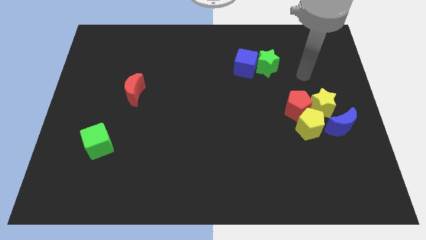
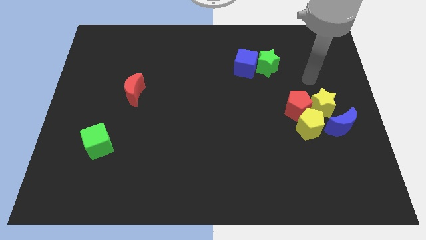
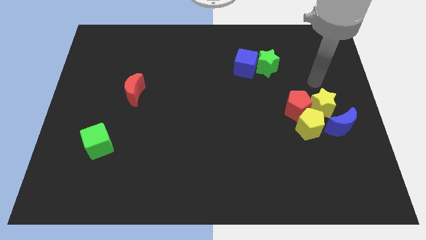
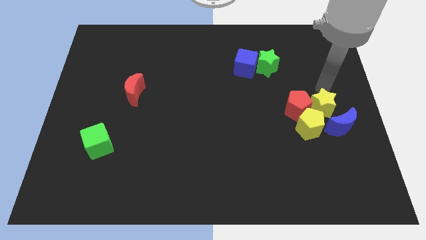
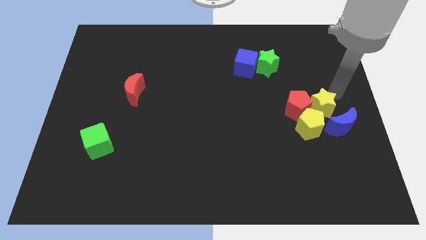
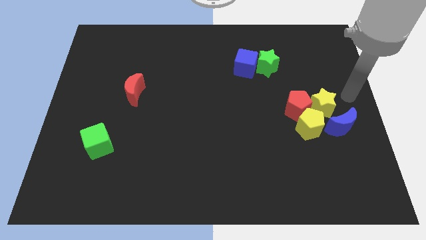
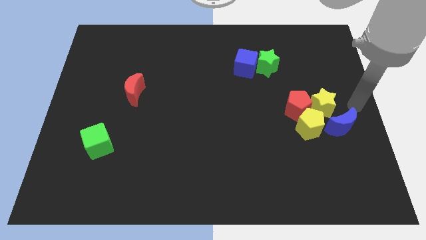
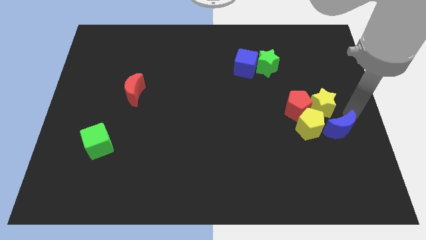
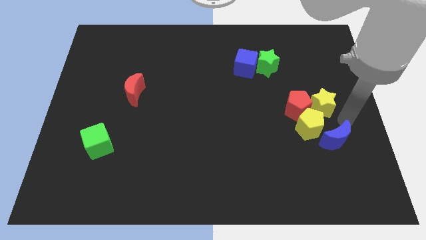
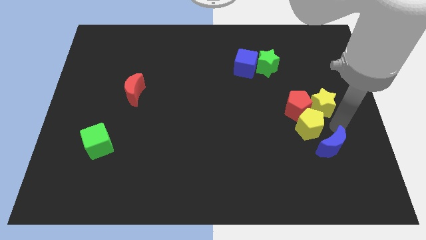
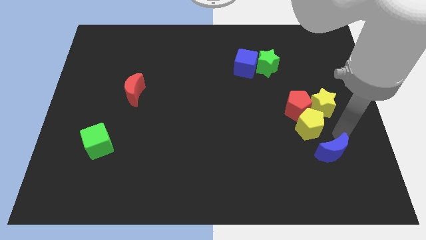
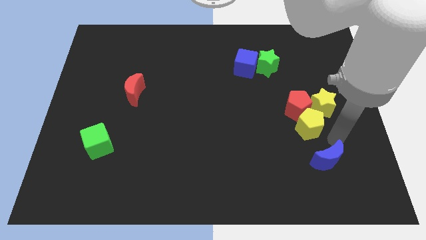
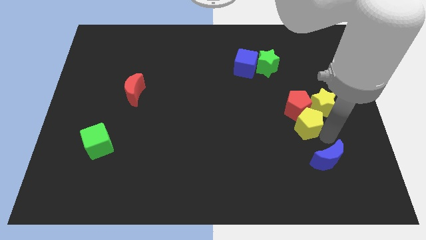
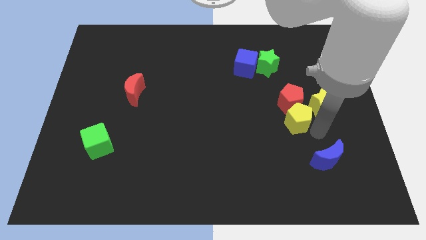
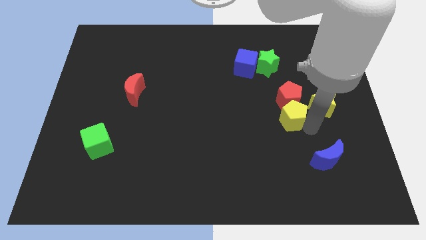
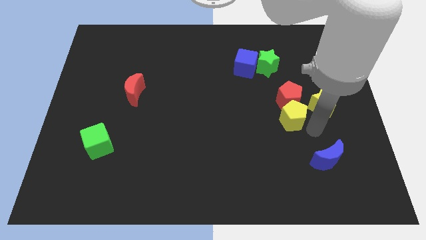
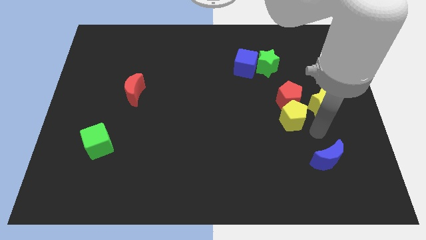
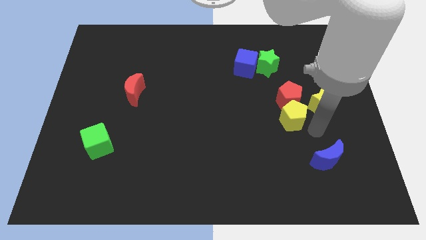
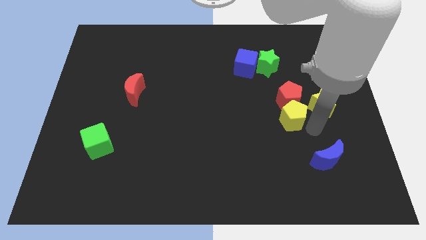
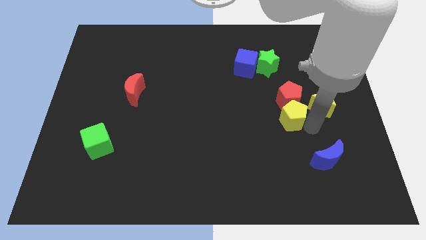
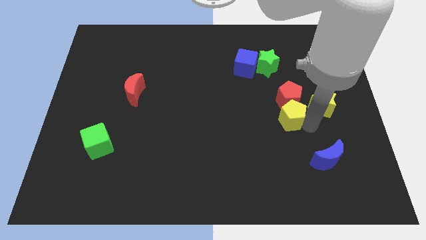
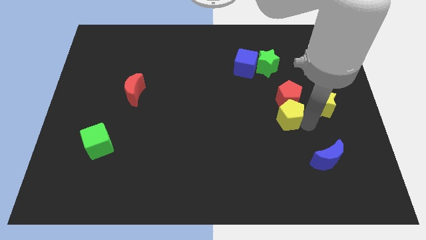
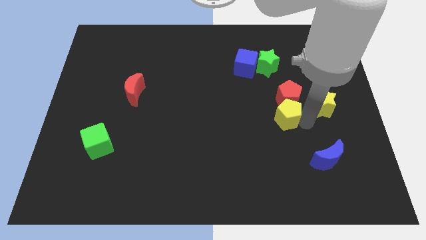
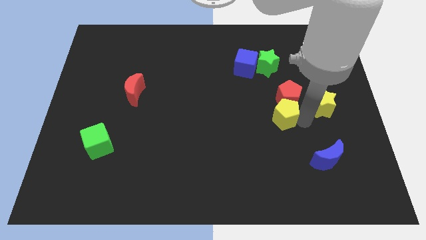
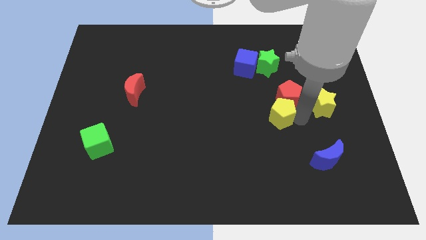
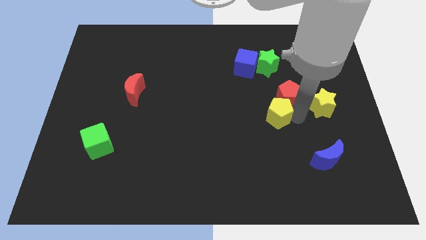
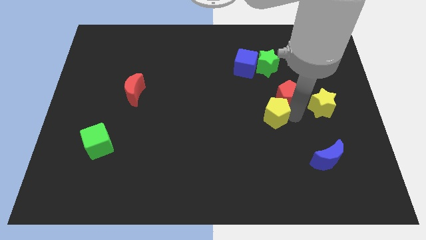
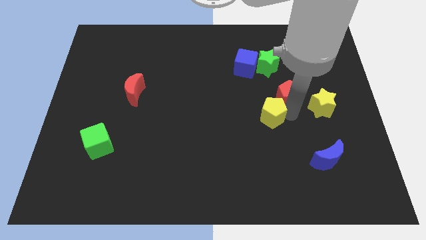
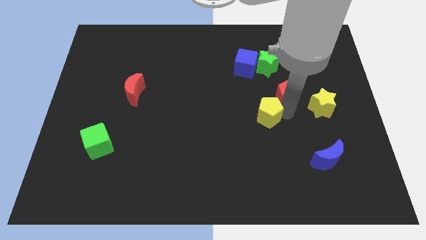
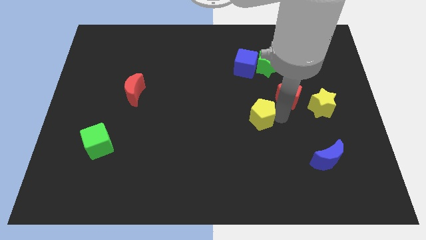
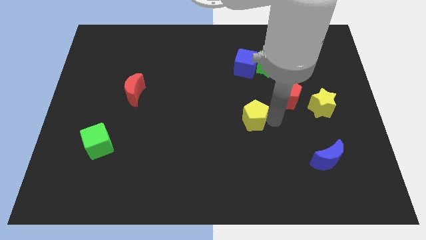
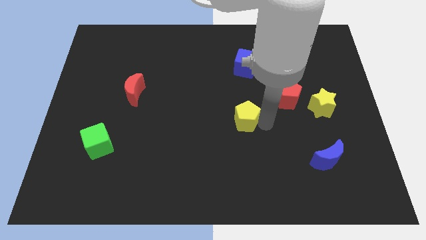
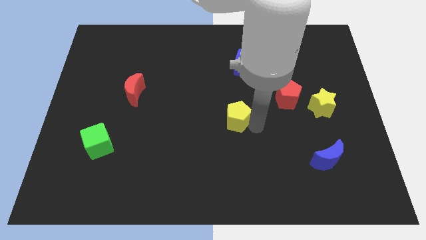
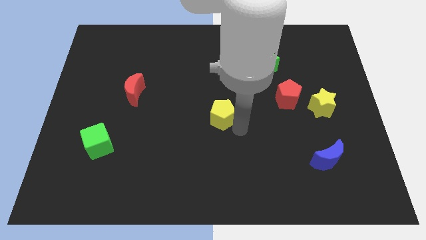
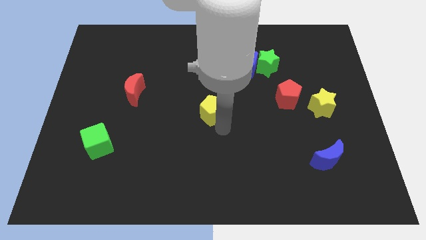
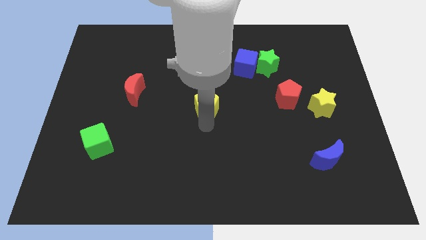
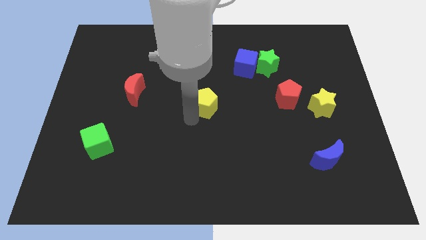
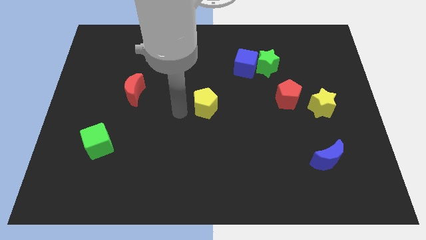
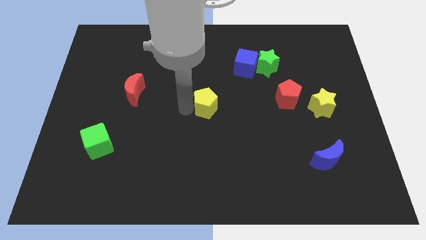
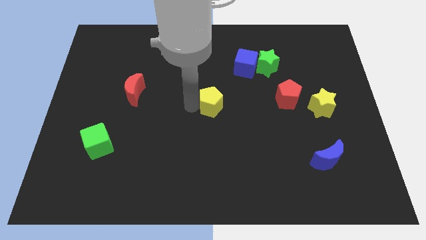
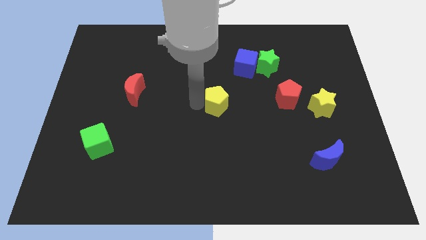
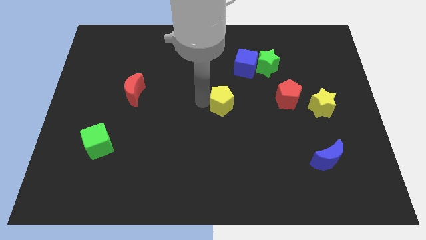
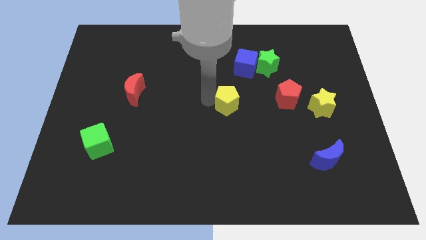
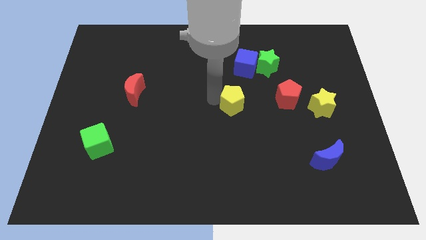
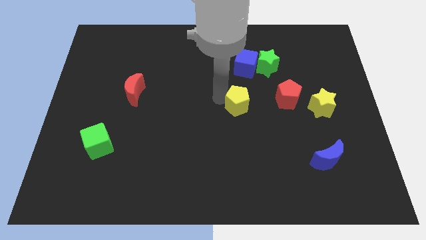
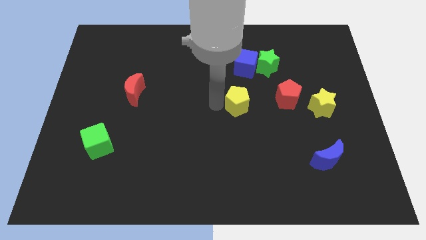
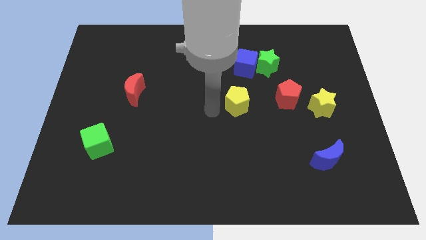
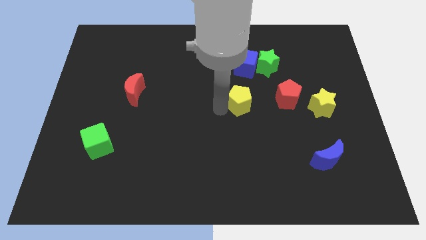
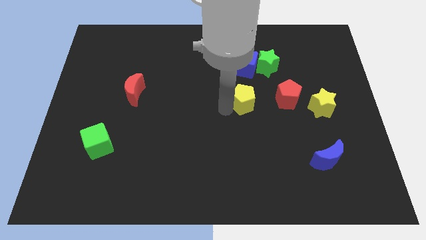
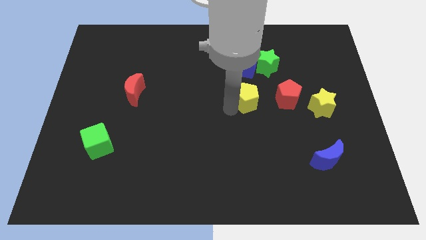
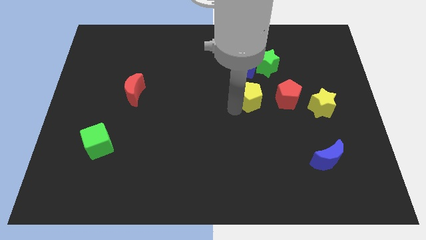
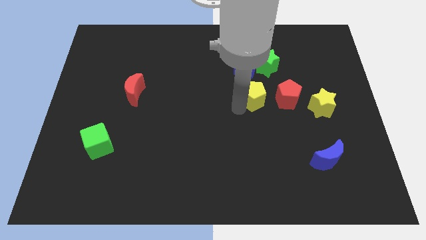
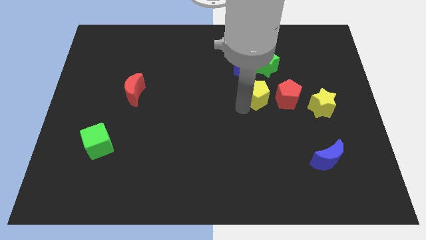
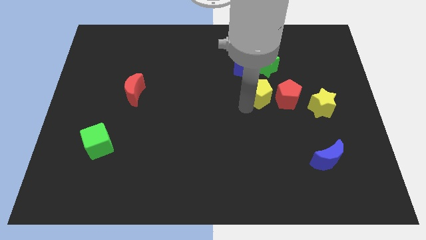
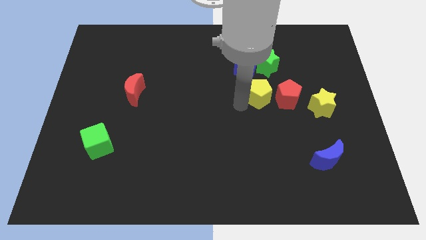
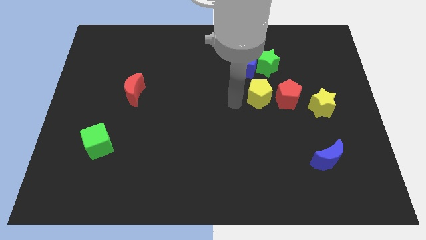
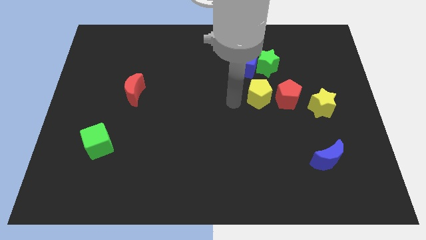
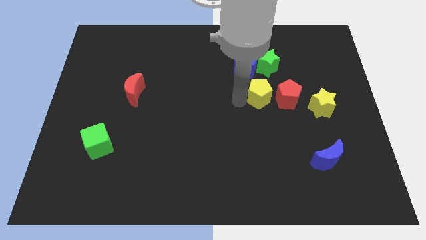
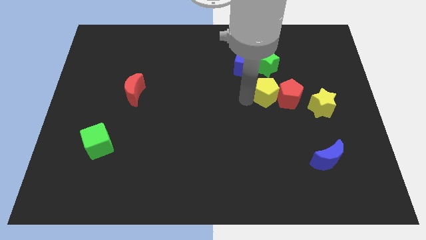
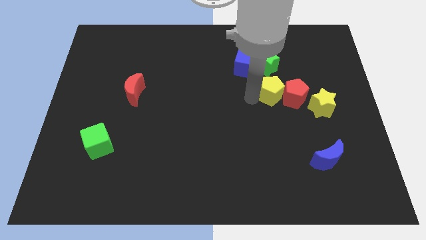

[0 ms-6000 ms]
slightly push the yellow pentagon up

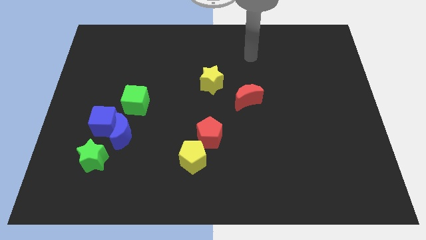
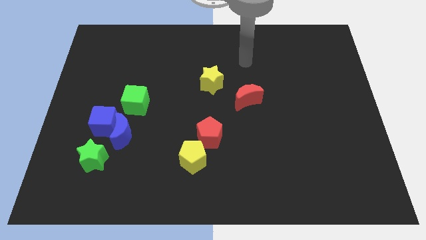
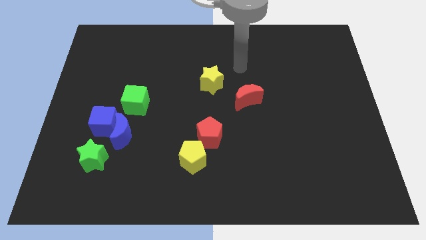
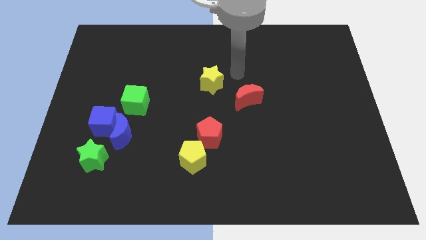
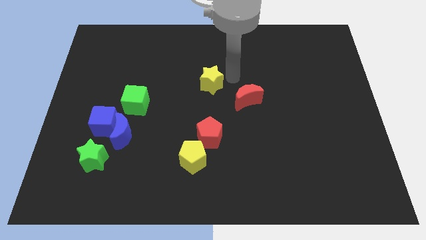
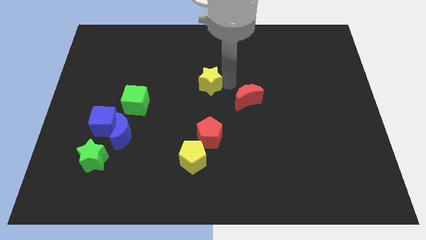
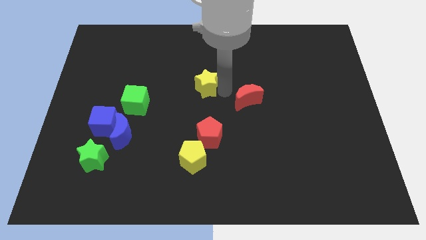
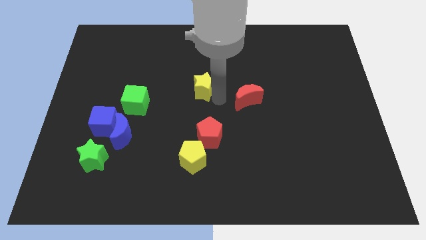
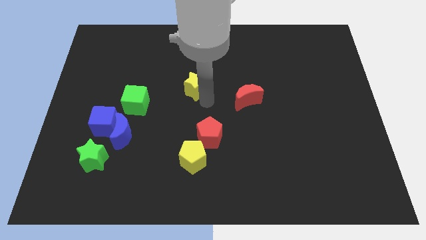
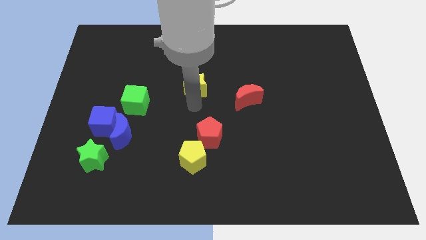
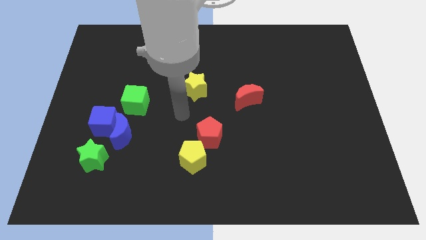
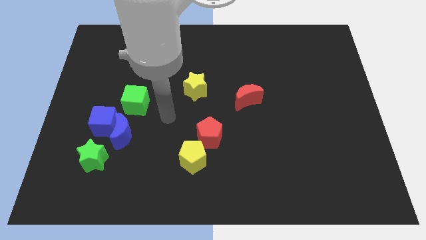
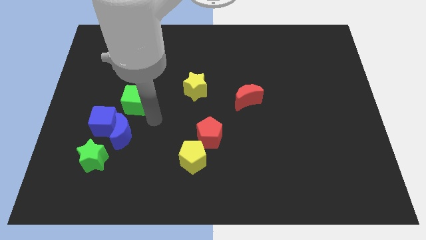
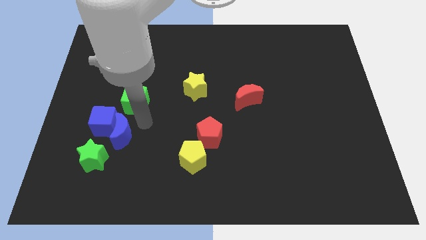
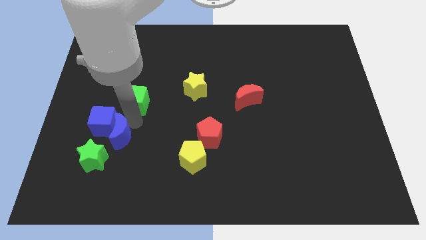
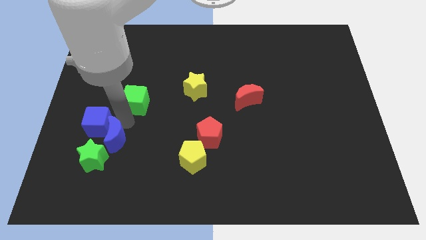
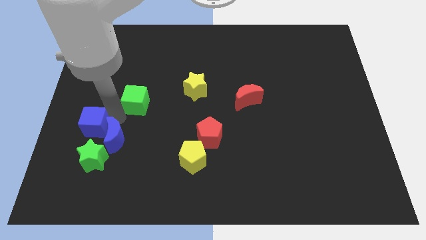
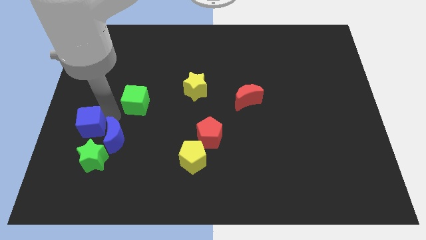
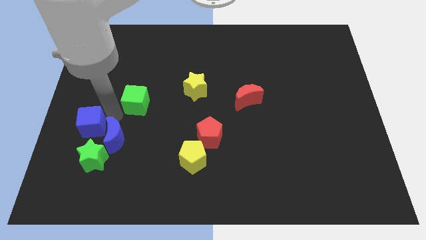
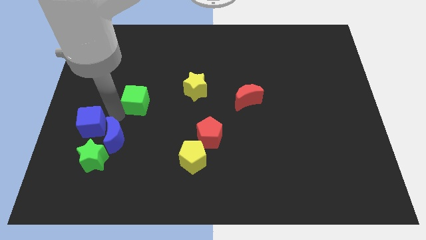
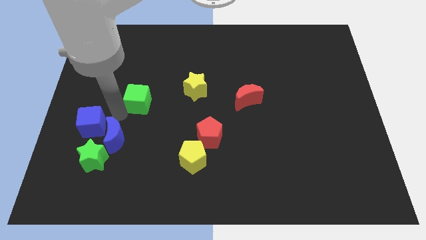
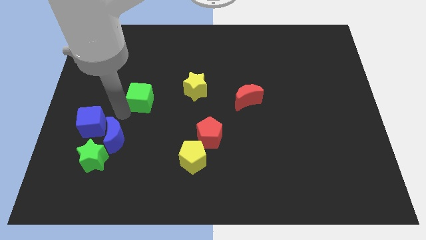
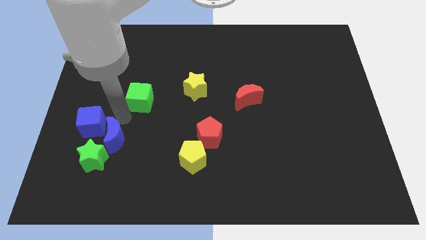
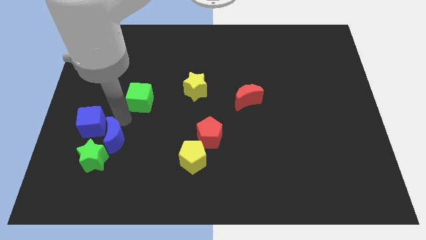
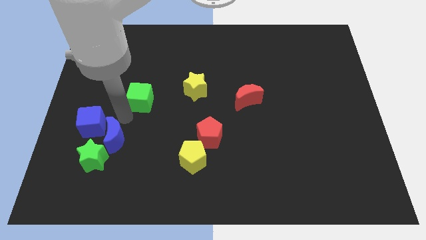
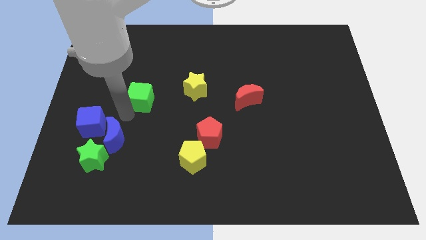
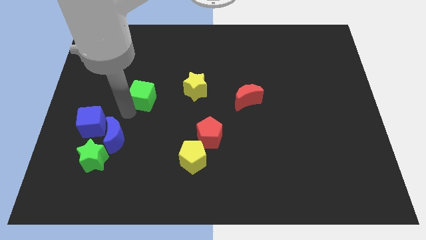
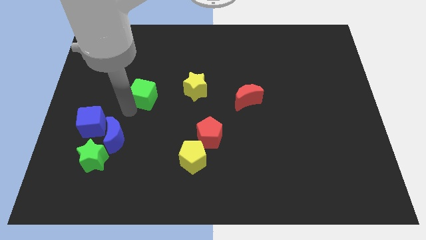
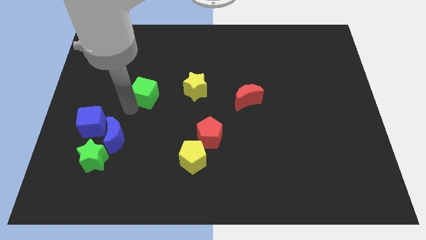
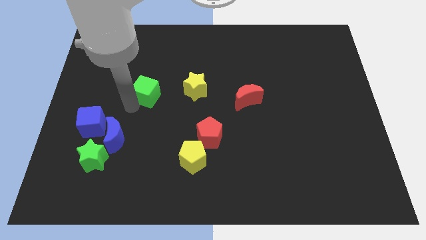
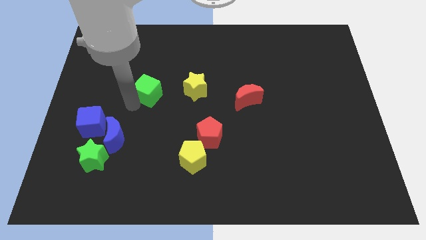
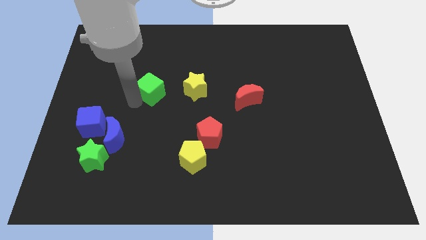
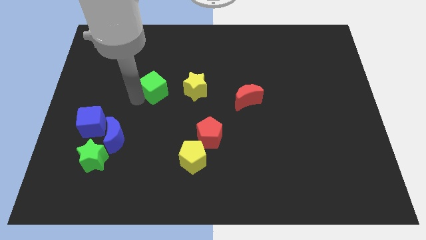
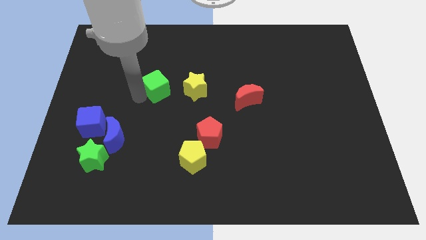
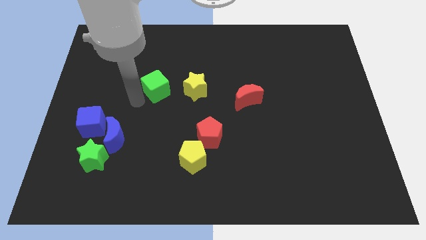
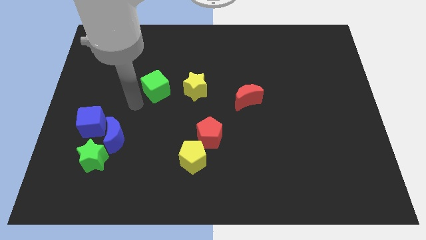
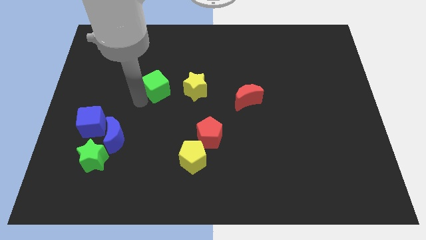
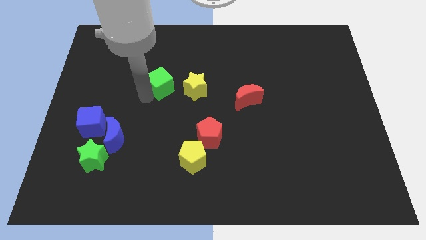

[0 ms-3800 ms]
slightly slide the green cube diagonally up and to the right
